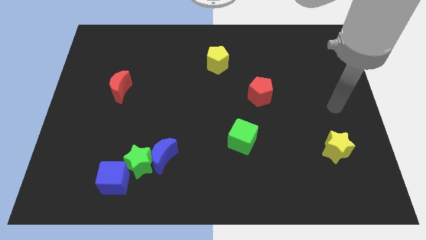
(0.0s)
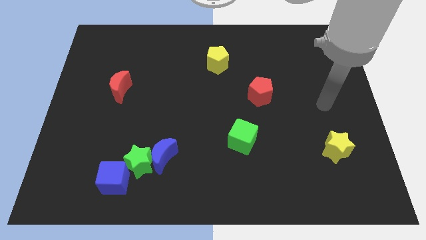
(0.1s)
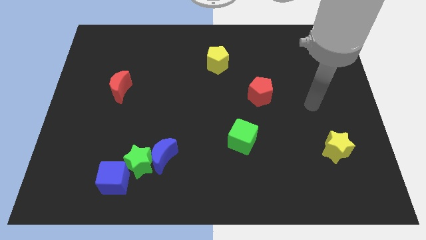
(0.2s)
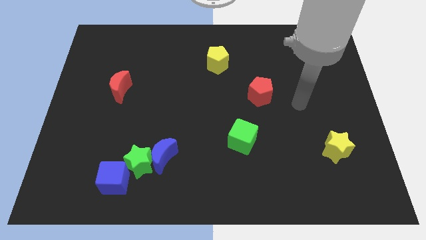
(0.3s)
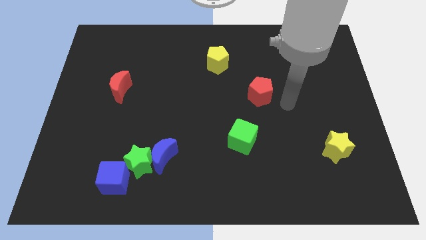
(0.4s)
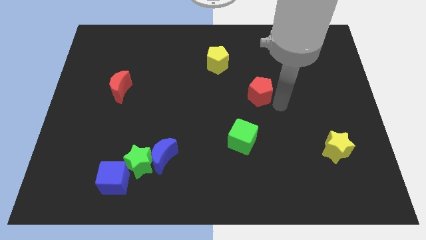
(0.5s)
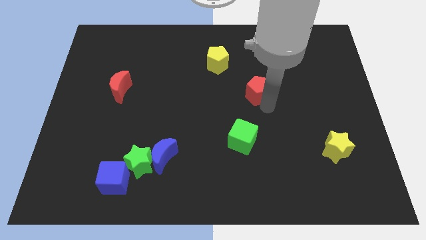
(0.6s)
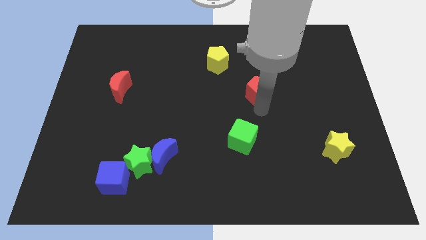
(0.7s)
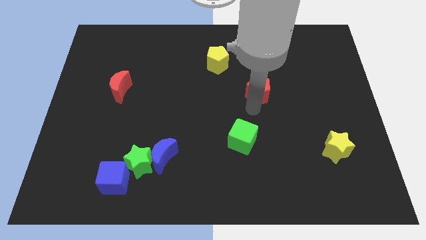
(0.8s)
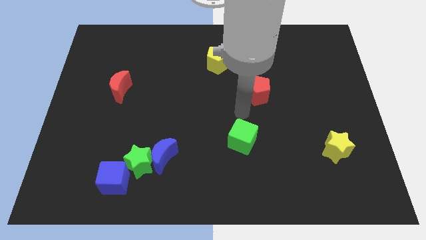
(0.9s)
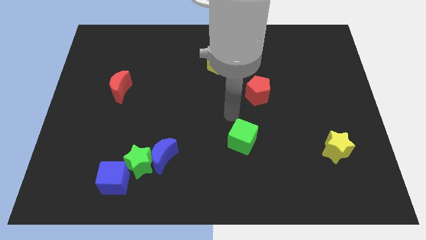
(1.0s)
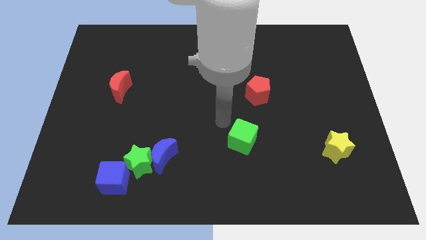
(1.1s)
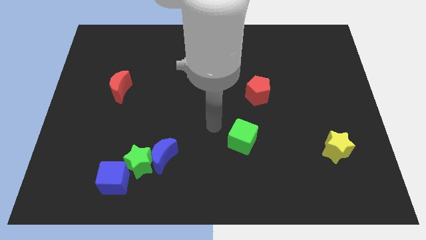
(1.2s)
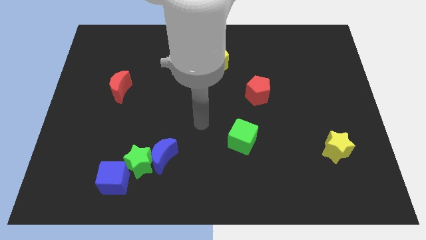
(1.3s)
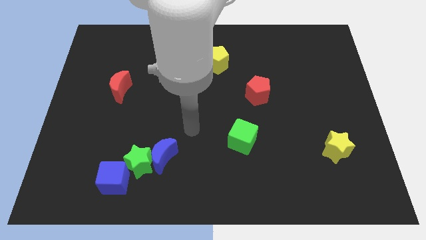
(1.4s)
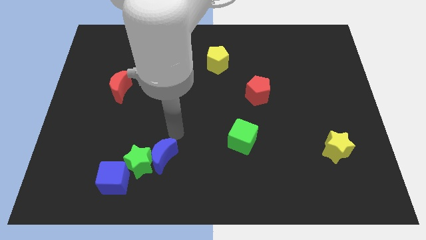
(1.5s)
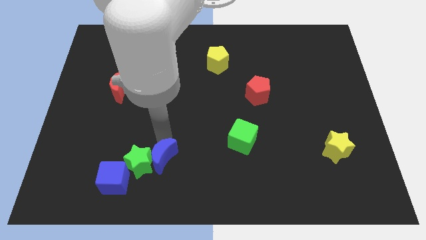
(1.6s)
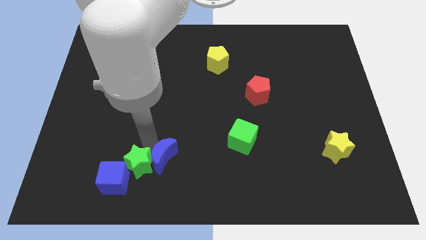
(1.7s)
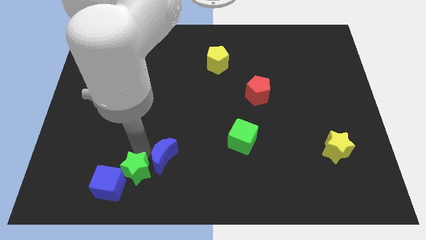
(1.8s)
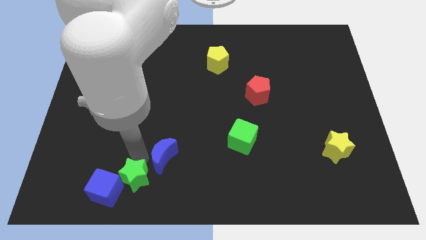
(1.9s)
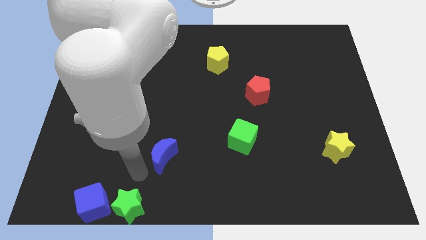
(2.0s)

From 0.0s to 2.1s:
pull the blue moon apart from the green star

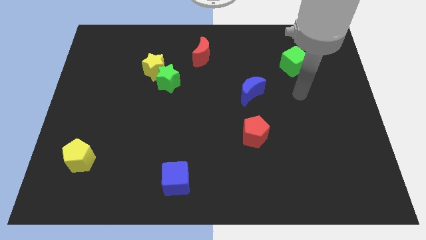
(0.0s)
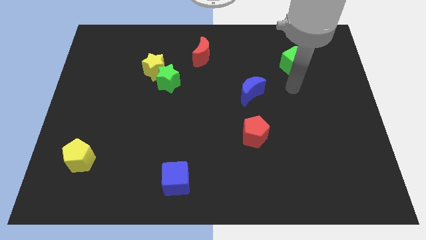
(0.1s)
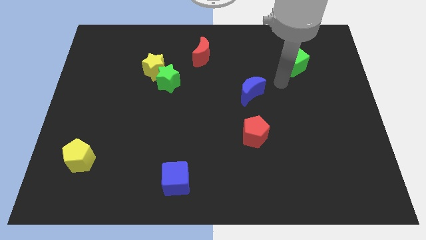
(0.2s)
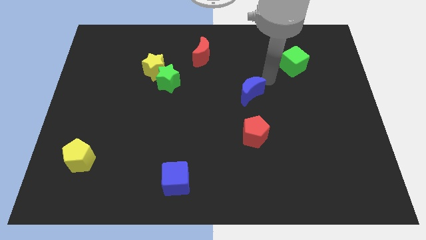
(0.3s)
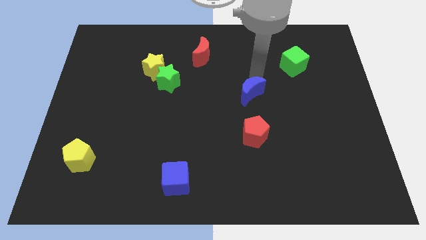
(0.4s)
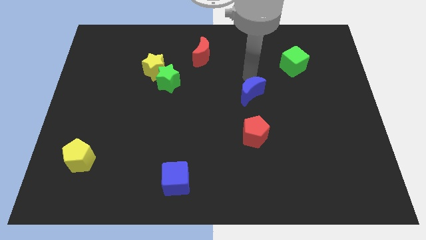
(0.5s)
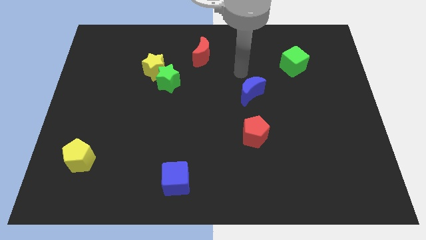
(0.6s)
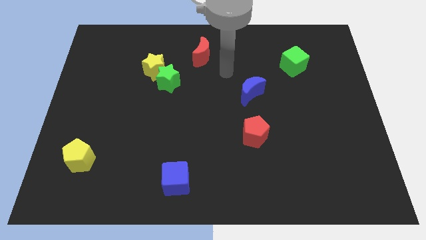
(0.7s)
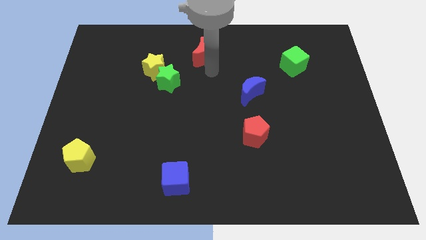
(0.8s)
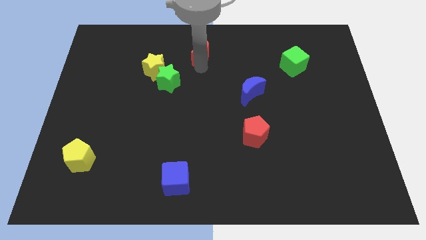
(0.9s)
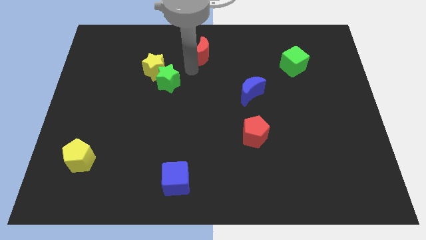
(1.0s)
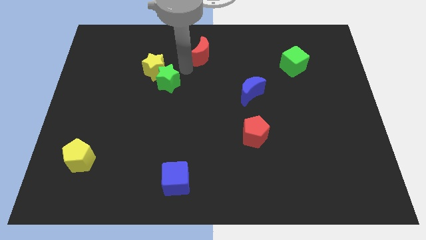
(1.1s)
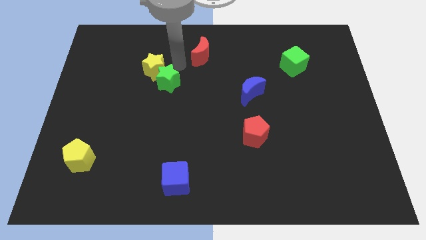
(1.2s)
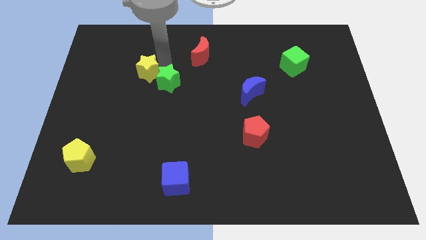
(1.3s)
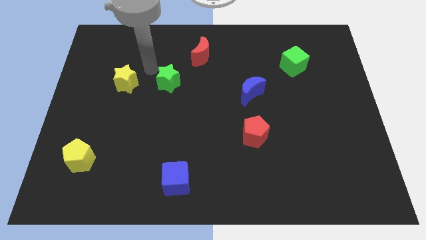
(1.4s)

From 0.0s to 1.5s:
separate the green star from the yellow star

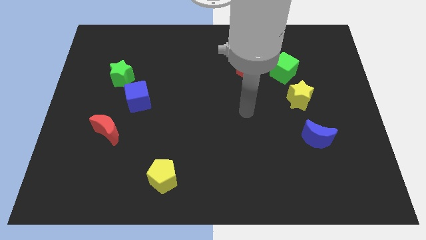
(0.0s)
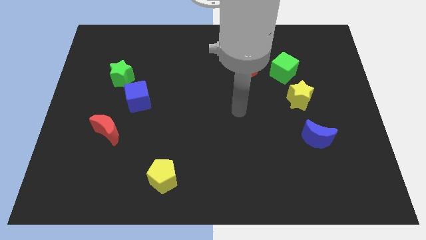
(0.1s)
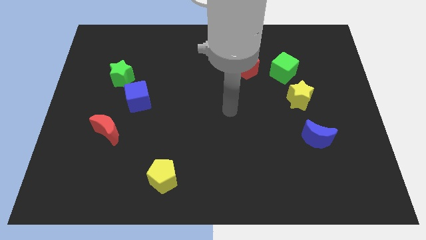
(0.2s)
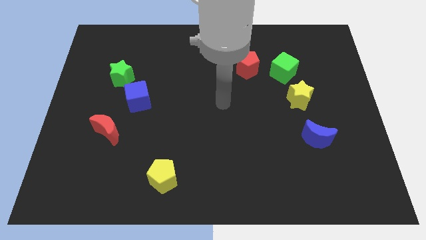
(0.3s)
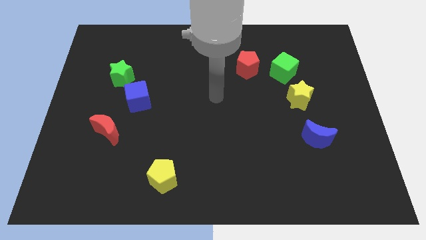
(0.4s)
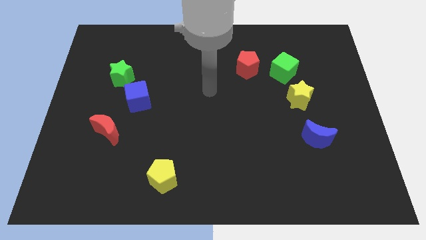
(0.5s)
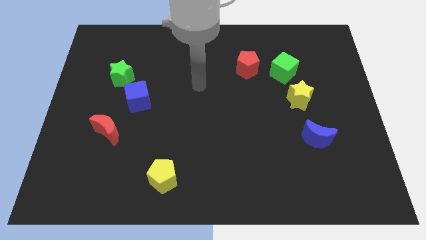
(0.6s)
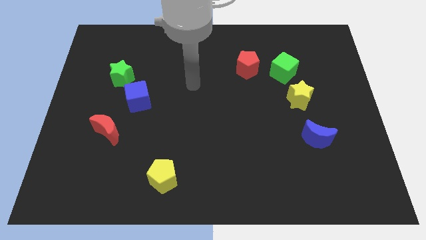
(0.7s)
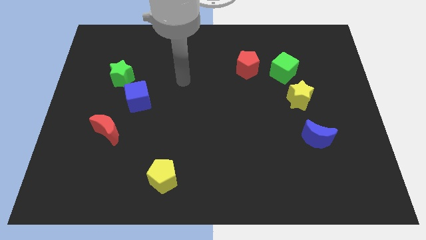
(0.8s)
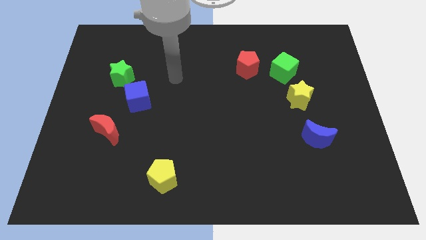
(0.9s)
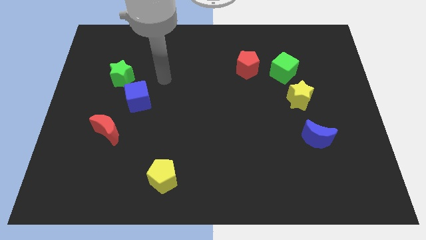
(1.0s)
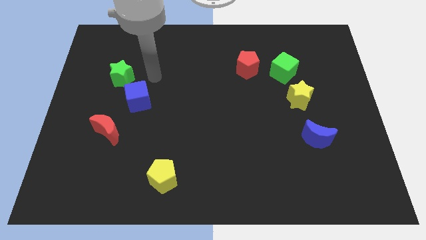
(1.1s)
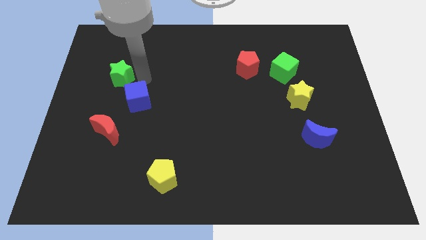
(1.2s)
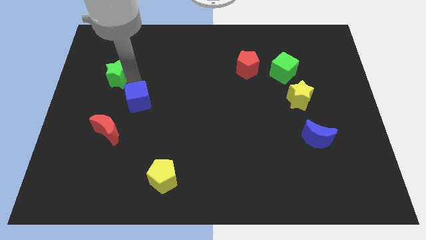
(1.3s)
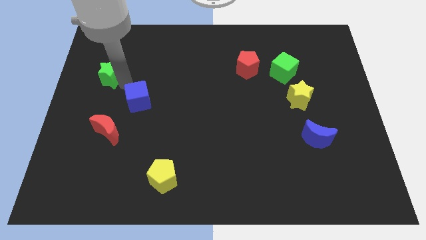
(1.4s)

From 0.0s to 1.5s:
move the blue cube away from the green star

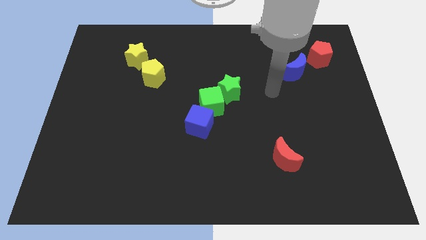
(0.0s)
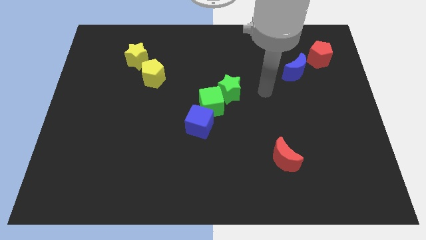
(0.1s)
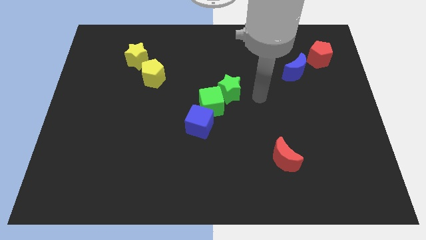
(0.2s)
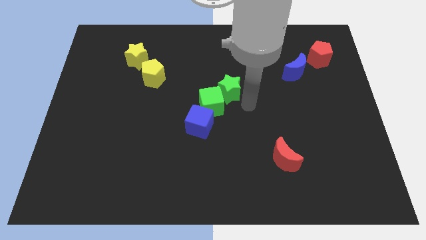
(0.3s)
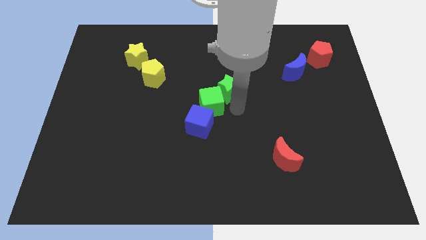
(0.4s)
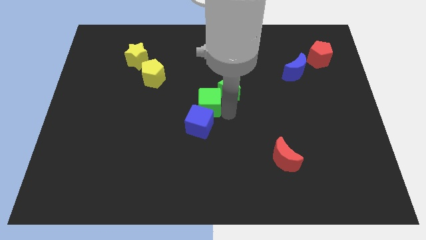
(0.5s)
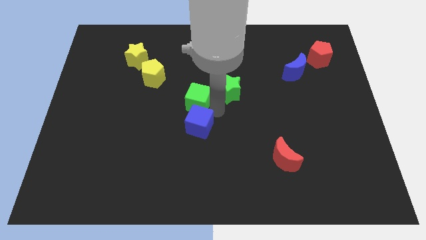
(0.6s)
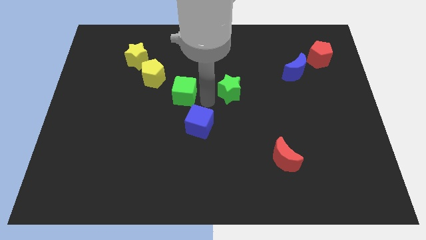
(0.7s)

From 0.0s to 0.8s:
separate the green star from the green cube

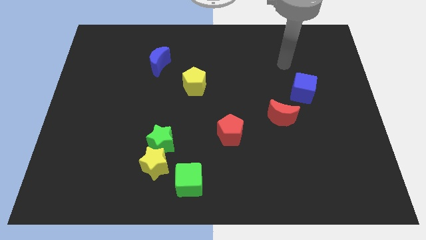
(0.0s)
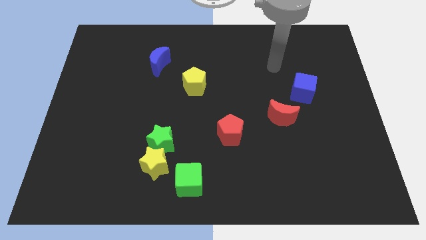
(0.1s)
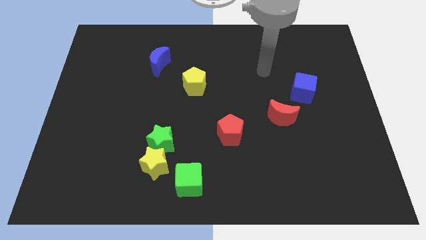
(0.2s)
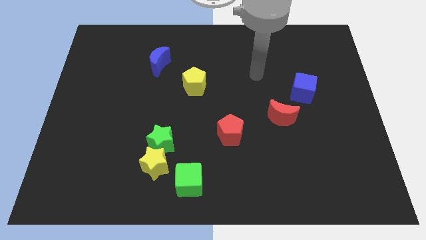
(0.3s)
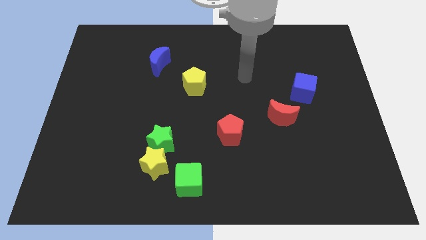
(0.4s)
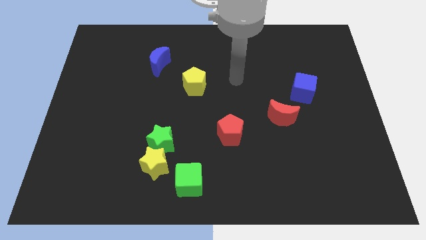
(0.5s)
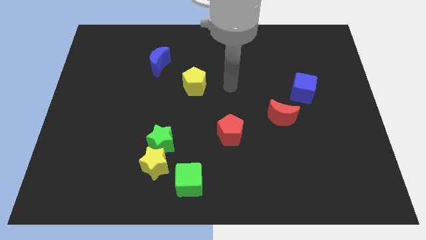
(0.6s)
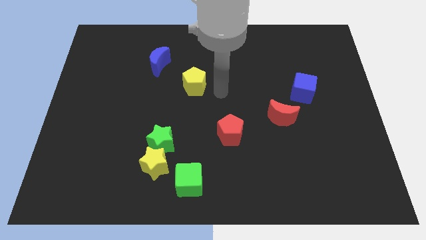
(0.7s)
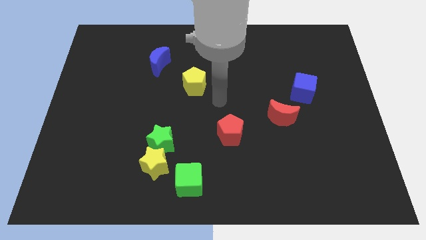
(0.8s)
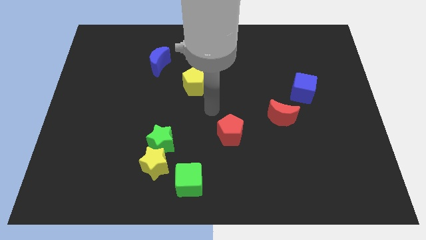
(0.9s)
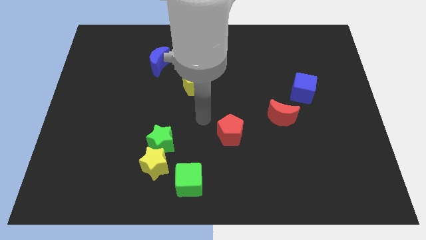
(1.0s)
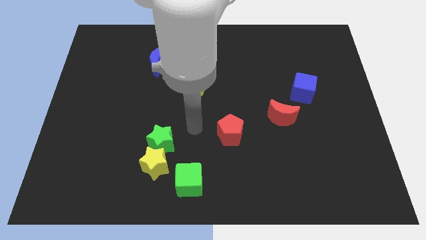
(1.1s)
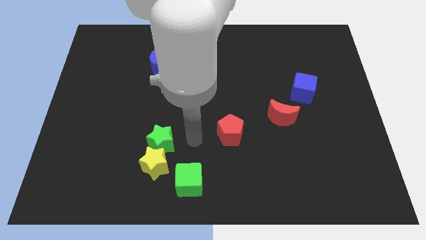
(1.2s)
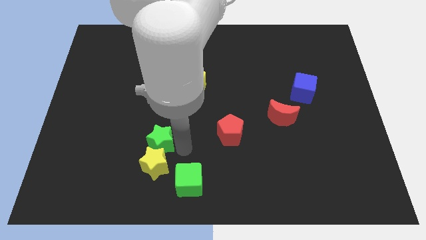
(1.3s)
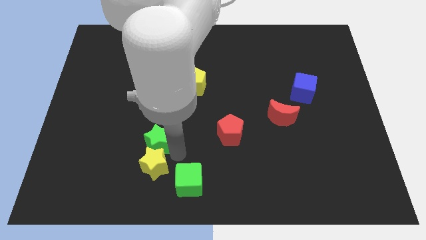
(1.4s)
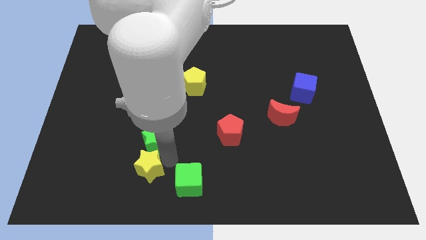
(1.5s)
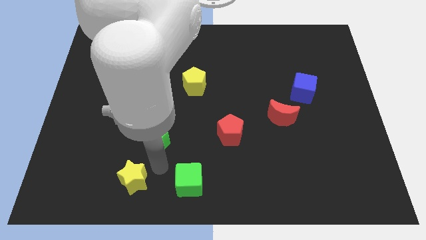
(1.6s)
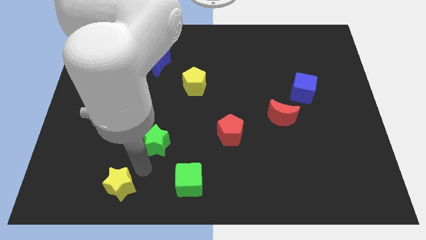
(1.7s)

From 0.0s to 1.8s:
pull the green star apart from the yellow star

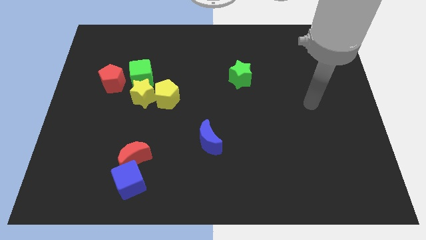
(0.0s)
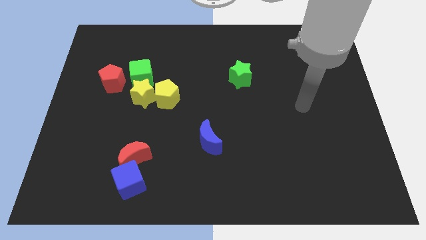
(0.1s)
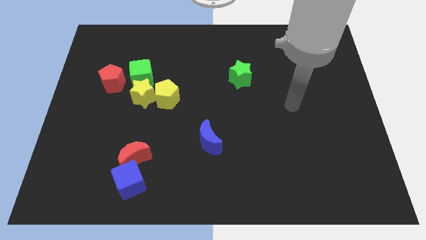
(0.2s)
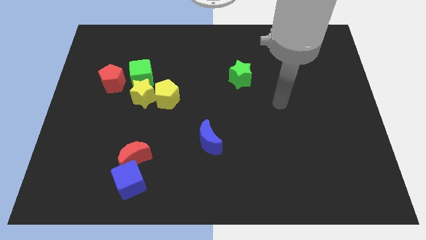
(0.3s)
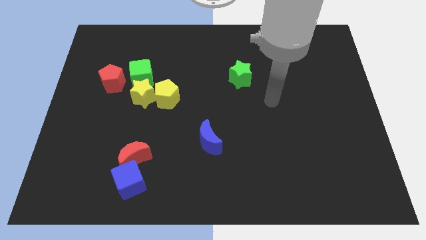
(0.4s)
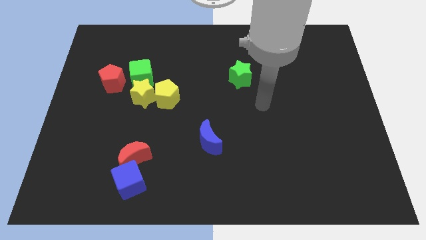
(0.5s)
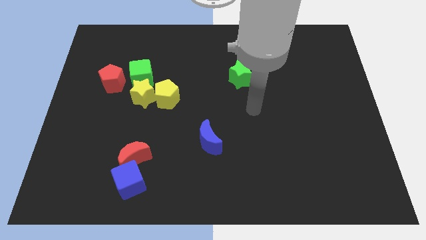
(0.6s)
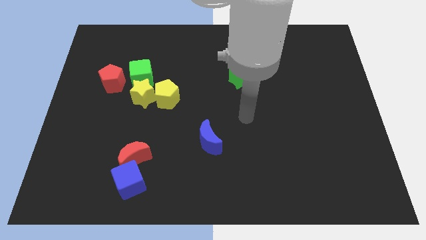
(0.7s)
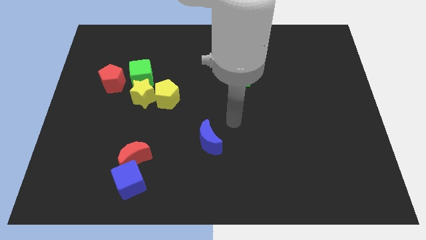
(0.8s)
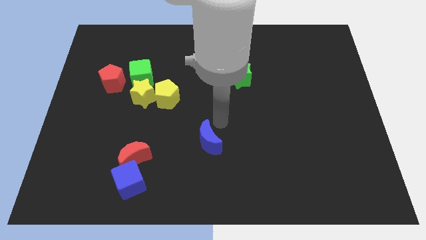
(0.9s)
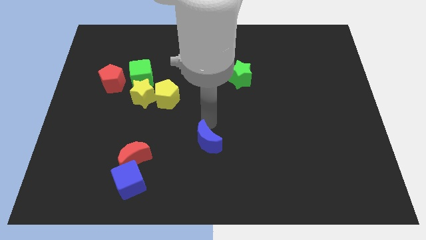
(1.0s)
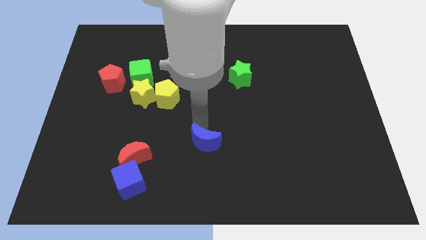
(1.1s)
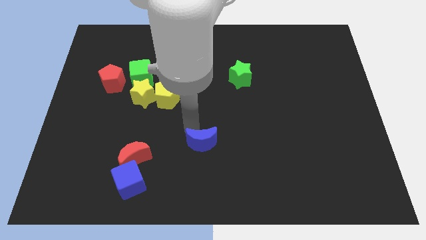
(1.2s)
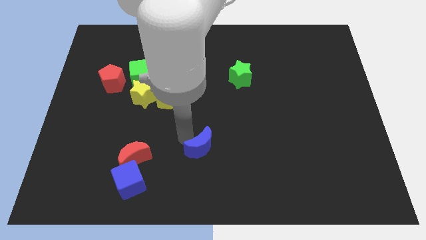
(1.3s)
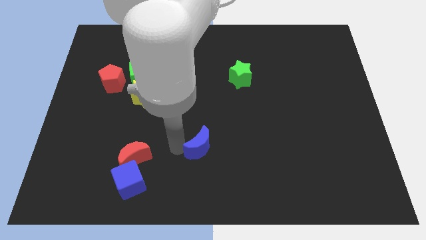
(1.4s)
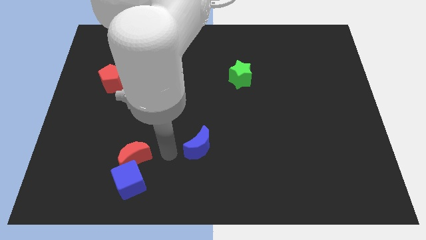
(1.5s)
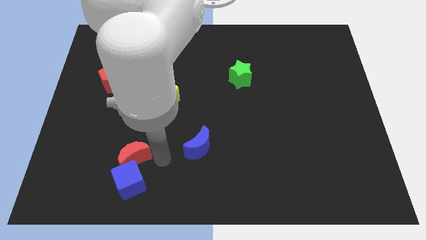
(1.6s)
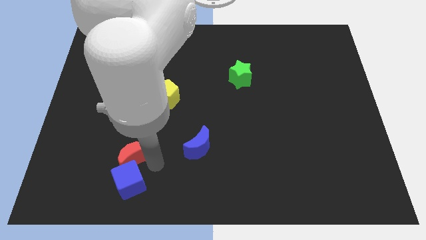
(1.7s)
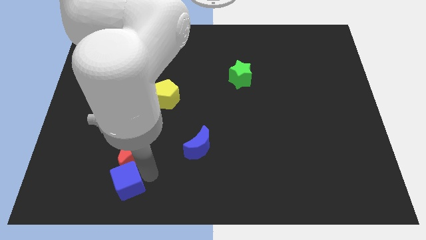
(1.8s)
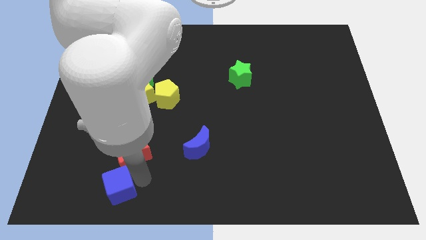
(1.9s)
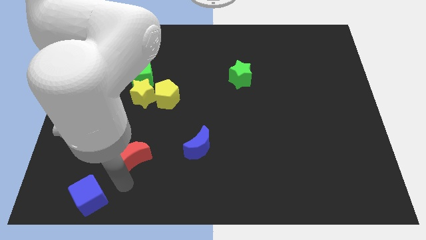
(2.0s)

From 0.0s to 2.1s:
separate the red moon from the blue cube
